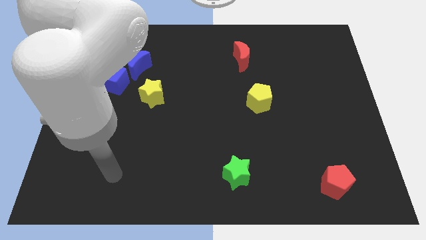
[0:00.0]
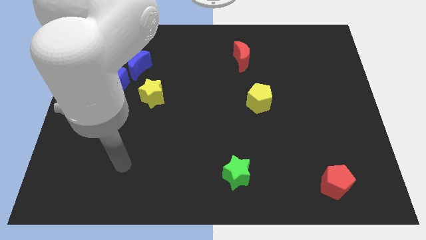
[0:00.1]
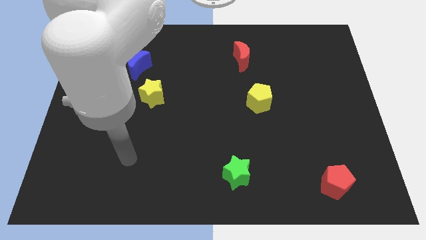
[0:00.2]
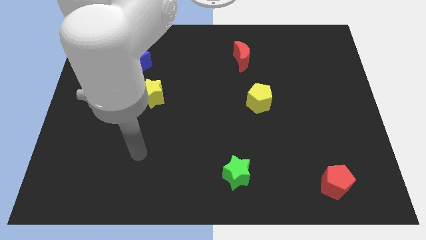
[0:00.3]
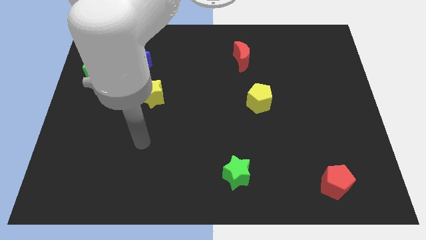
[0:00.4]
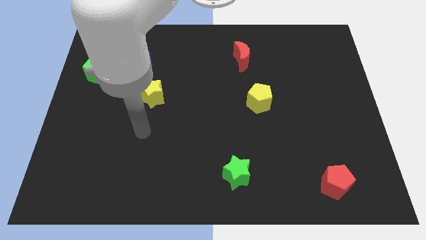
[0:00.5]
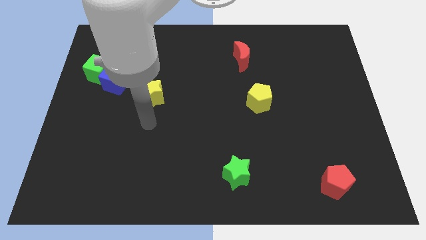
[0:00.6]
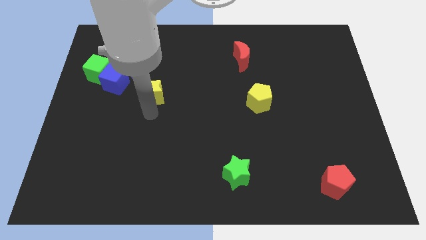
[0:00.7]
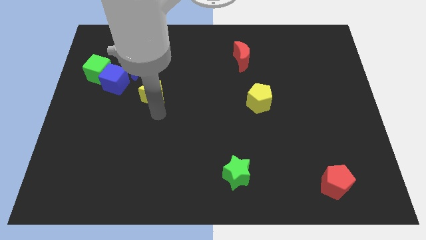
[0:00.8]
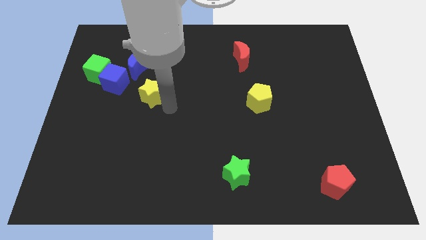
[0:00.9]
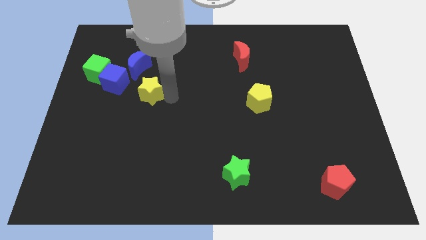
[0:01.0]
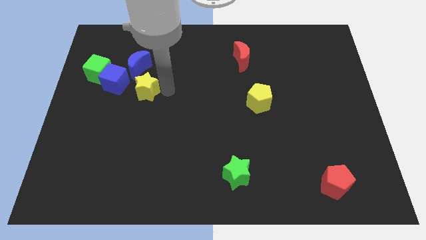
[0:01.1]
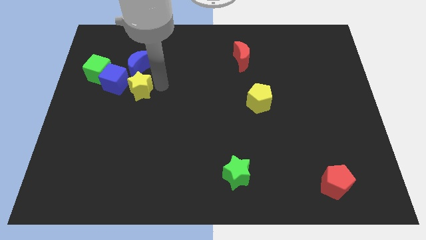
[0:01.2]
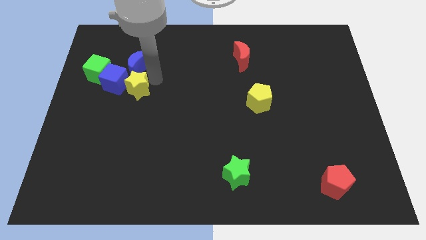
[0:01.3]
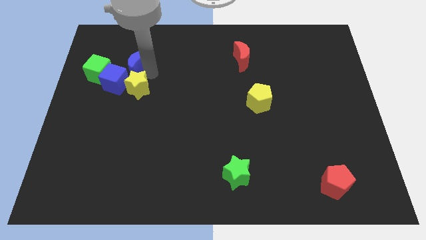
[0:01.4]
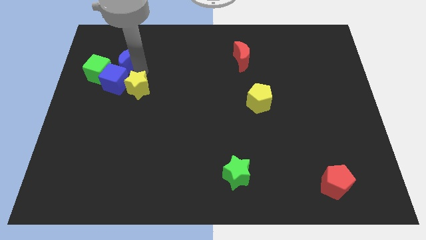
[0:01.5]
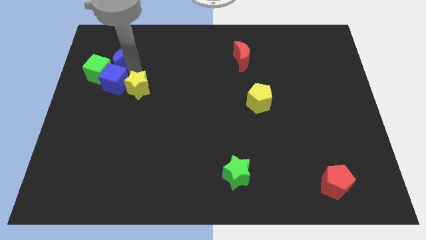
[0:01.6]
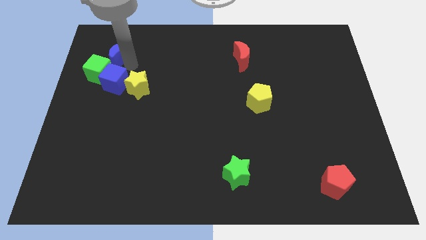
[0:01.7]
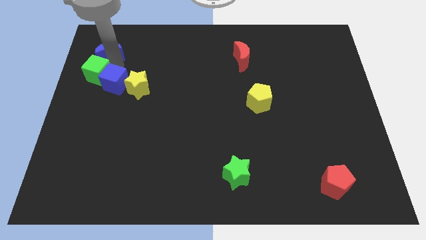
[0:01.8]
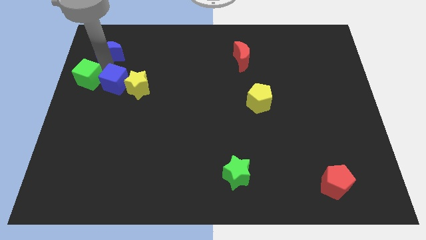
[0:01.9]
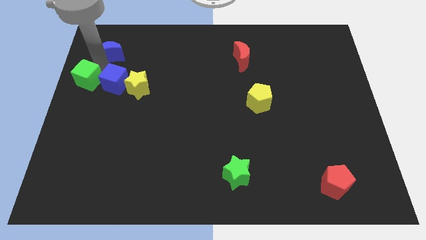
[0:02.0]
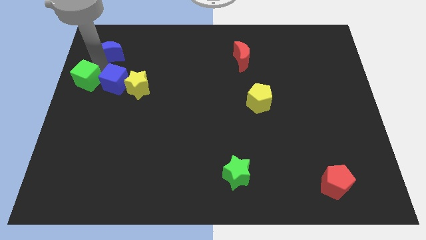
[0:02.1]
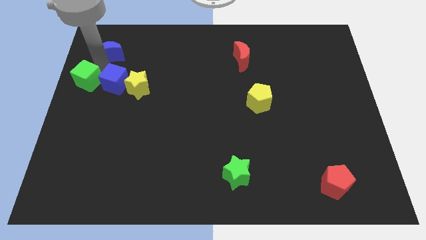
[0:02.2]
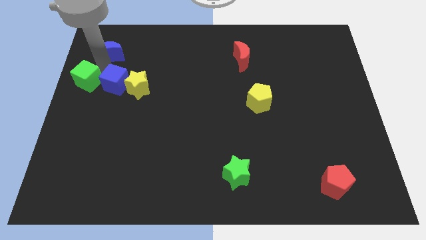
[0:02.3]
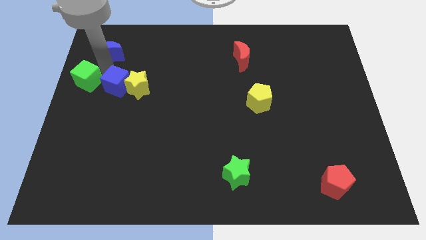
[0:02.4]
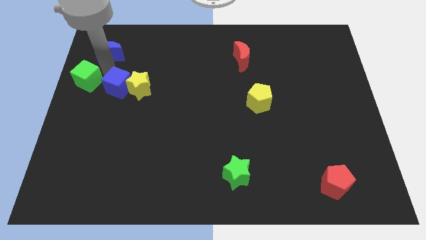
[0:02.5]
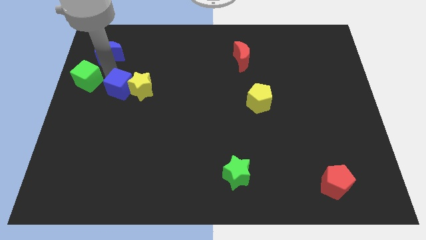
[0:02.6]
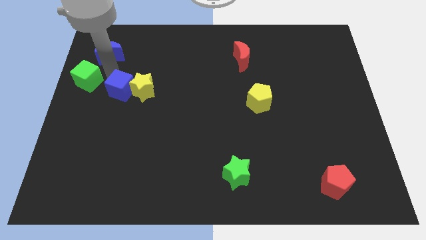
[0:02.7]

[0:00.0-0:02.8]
separate the blue cube from the green cube and blue moon

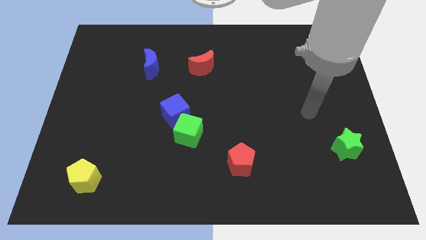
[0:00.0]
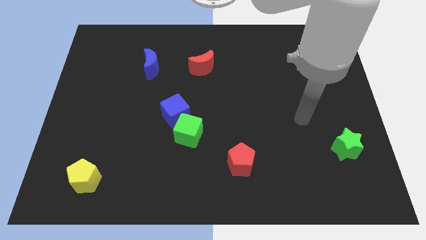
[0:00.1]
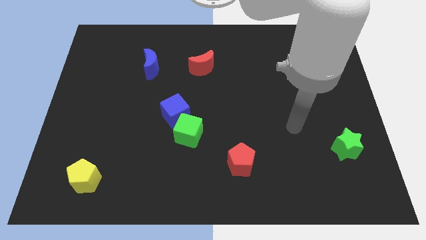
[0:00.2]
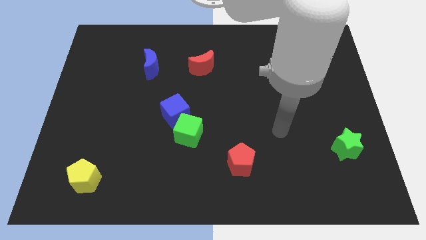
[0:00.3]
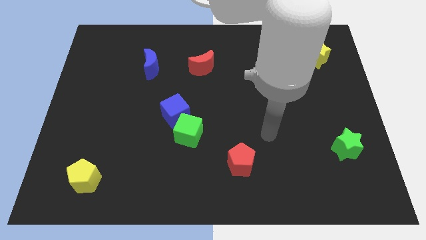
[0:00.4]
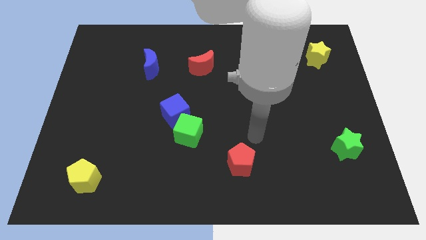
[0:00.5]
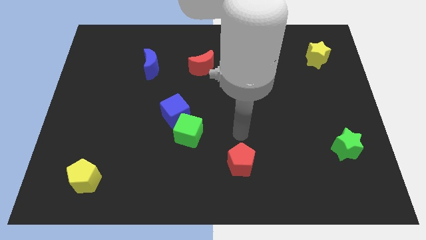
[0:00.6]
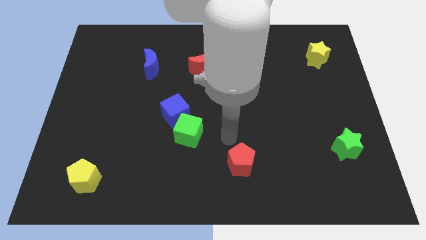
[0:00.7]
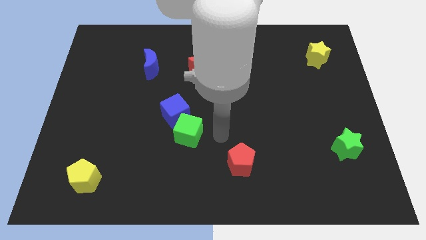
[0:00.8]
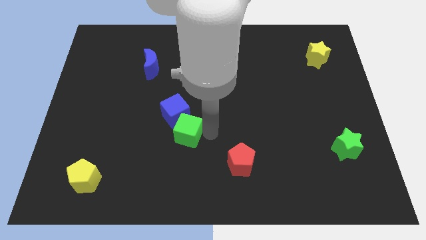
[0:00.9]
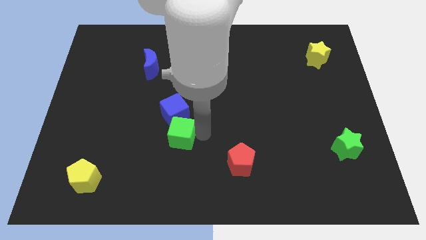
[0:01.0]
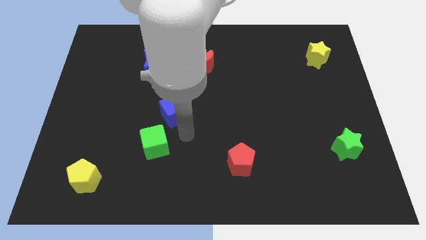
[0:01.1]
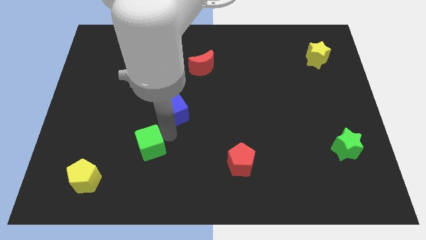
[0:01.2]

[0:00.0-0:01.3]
move the blue cube away from the green cube

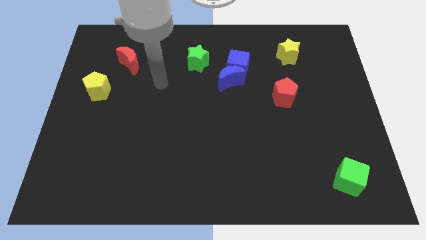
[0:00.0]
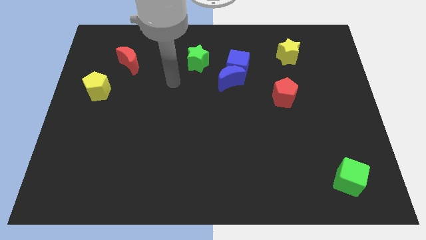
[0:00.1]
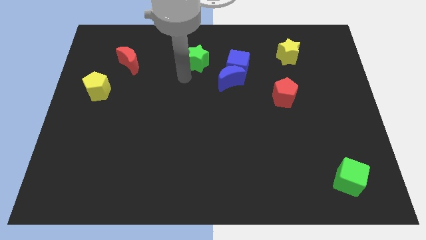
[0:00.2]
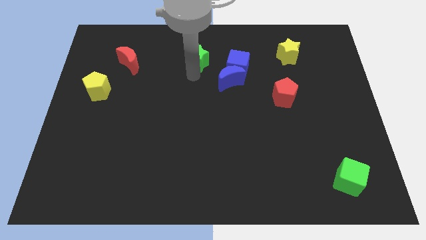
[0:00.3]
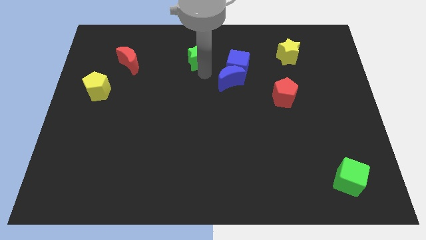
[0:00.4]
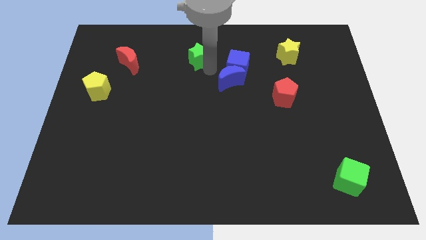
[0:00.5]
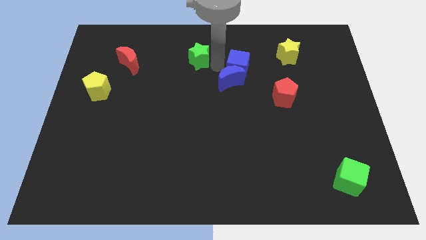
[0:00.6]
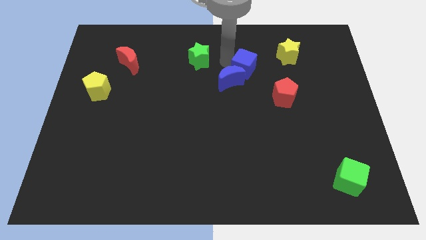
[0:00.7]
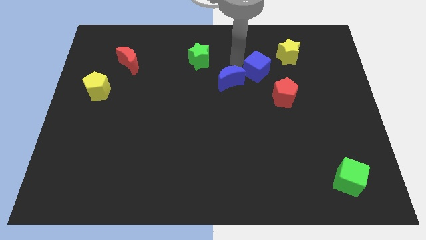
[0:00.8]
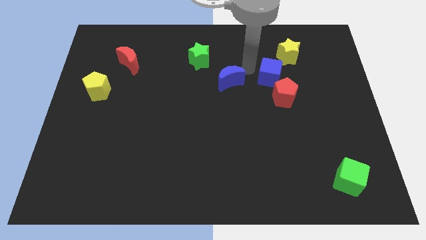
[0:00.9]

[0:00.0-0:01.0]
move the blue moon away from the blue cube

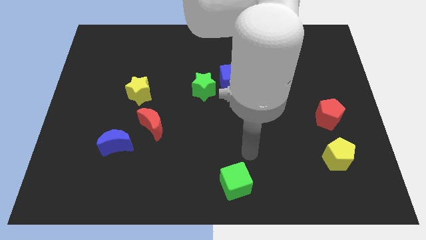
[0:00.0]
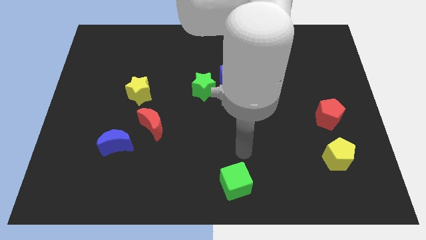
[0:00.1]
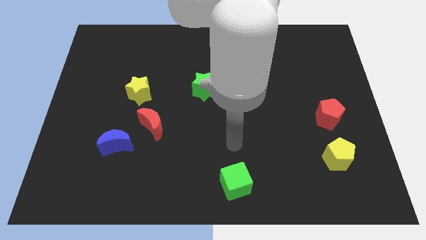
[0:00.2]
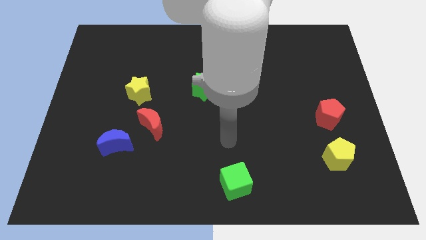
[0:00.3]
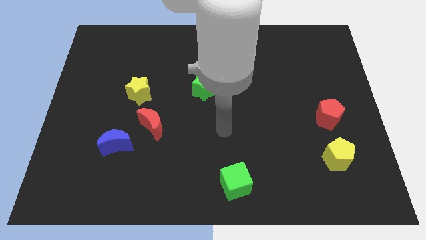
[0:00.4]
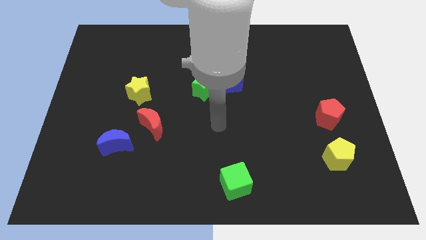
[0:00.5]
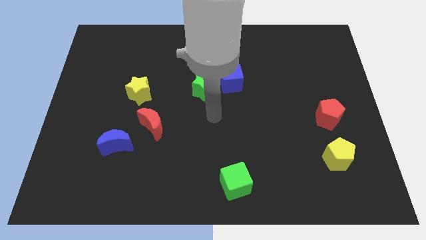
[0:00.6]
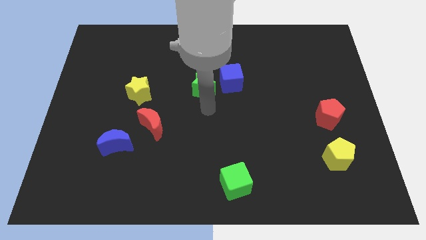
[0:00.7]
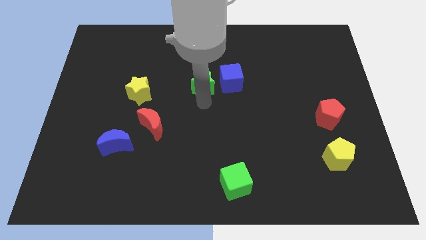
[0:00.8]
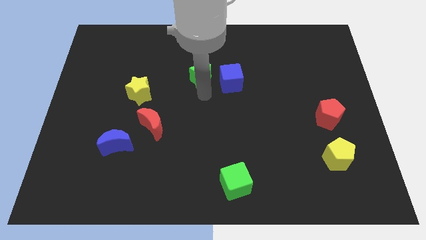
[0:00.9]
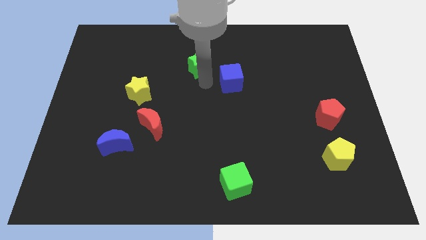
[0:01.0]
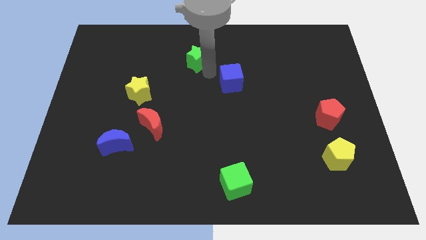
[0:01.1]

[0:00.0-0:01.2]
separate the blue cube from the green star

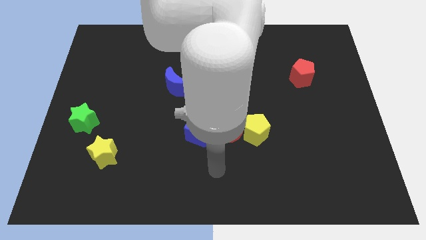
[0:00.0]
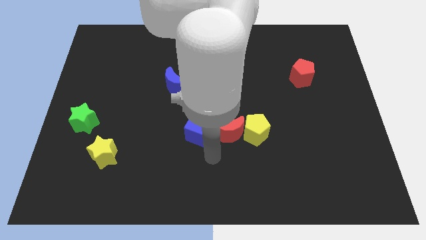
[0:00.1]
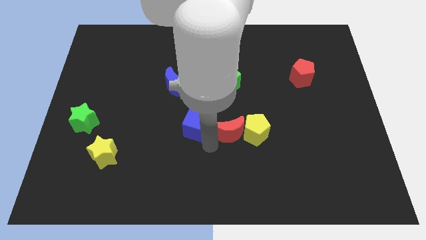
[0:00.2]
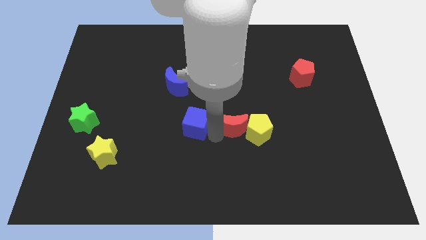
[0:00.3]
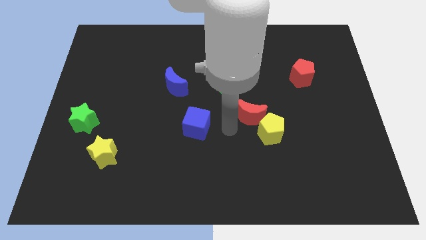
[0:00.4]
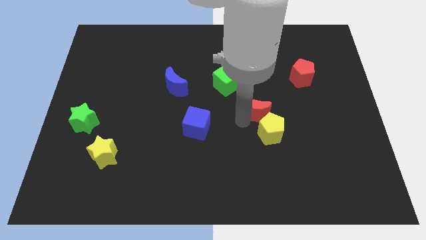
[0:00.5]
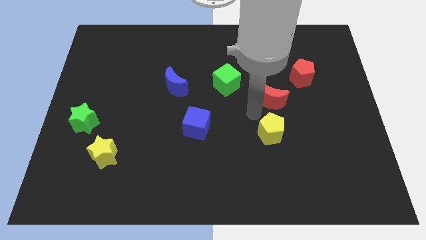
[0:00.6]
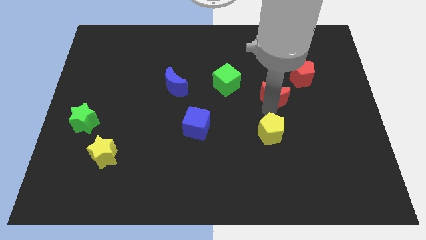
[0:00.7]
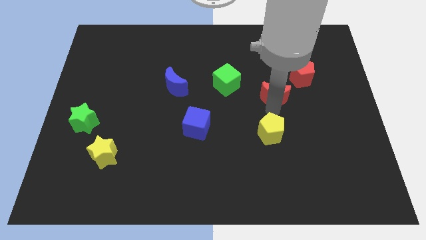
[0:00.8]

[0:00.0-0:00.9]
move the yellow pentagon away from the red moon

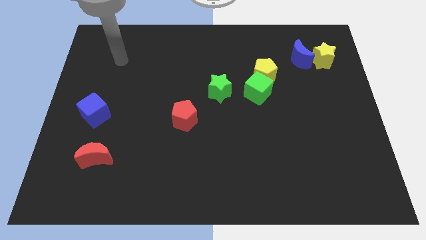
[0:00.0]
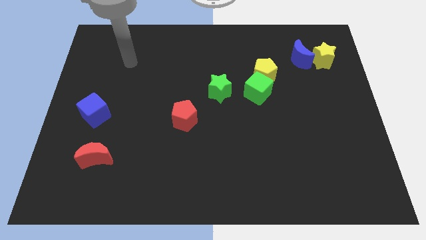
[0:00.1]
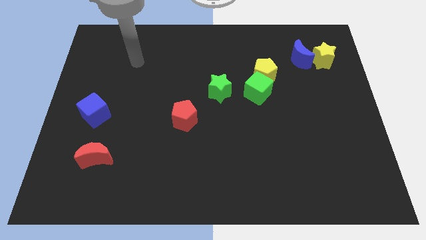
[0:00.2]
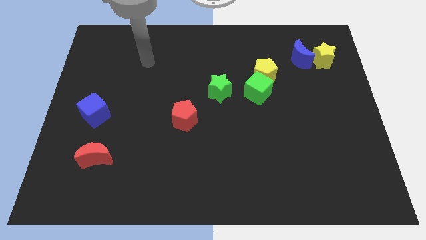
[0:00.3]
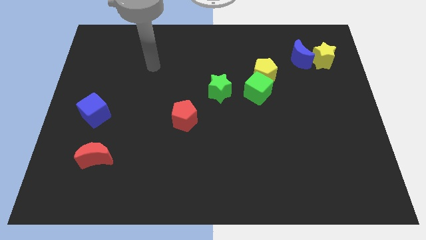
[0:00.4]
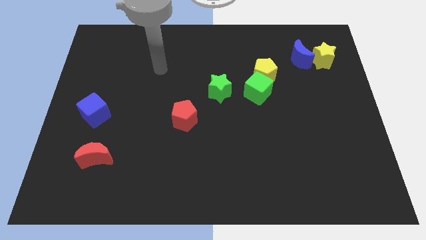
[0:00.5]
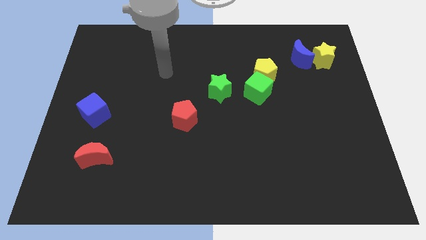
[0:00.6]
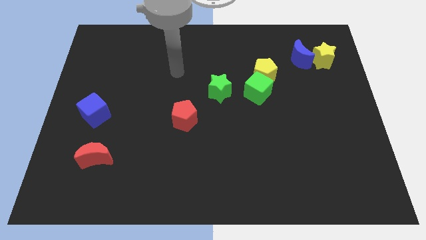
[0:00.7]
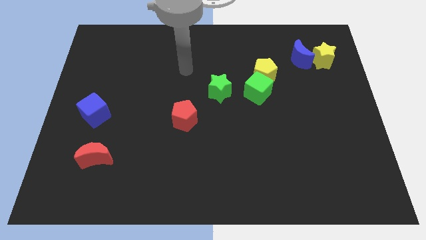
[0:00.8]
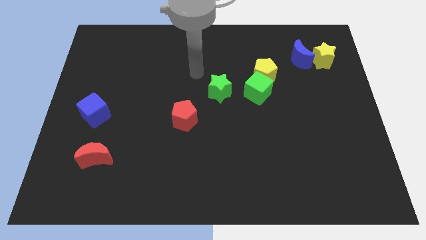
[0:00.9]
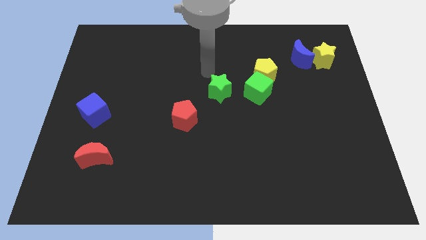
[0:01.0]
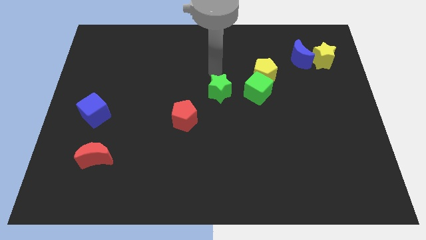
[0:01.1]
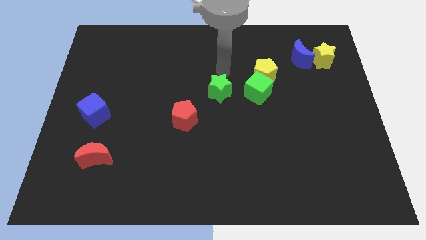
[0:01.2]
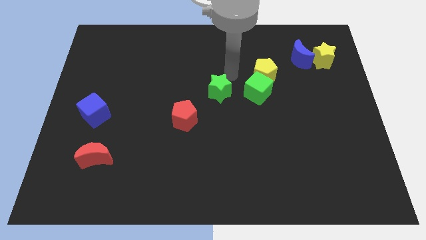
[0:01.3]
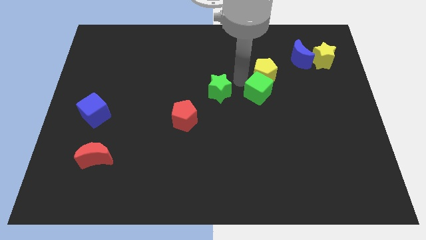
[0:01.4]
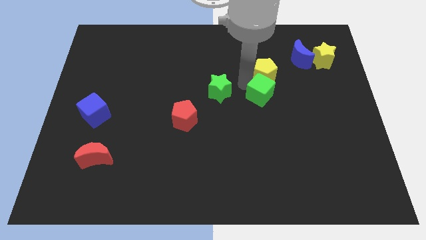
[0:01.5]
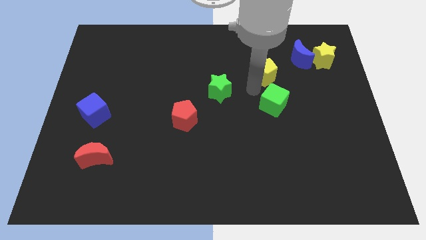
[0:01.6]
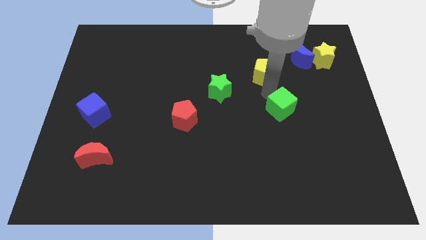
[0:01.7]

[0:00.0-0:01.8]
separate the yellow pentagon from the green cube

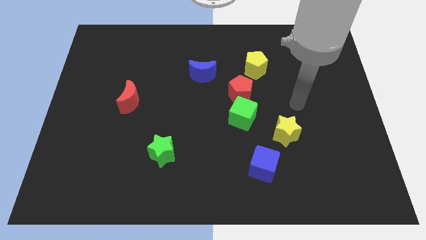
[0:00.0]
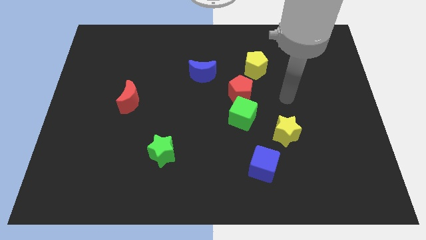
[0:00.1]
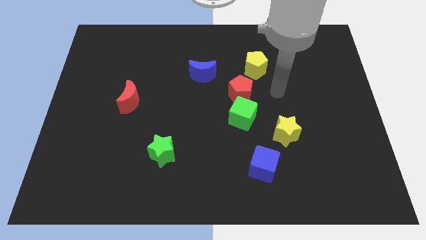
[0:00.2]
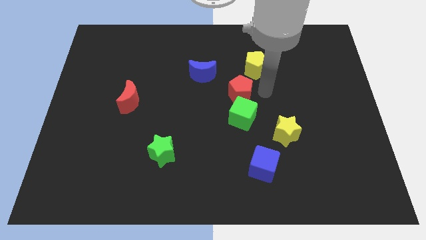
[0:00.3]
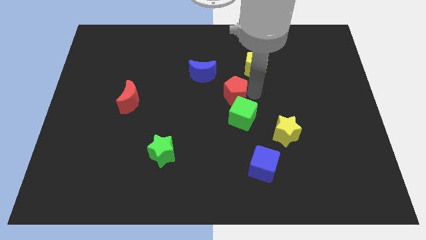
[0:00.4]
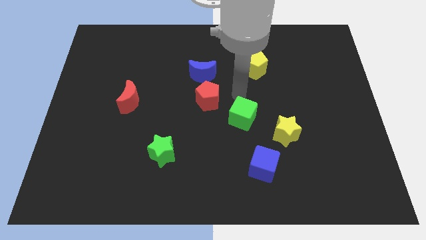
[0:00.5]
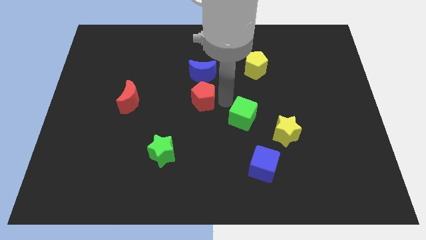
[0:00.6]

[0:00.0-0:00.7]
separate the green cube from the red pentagon
